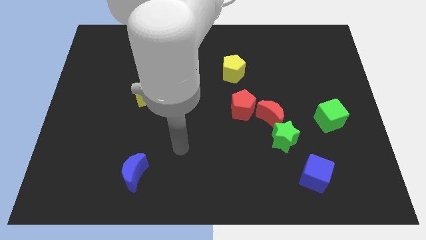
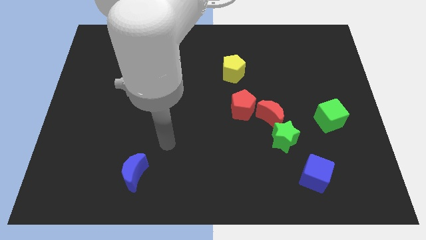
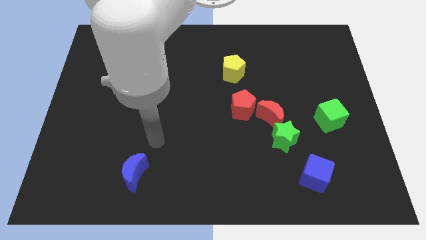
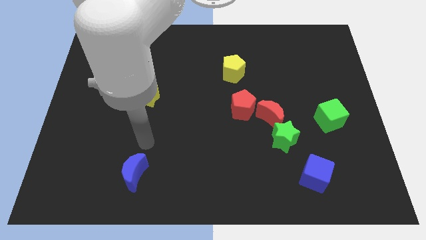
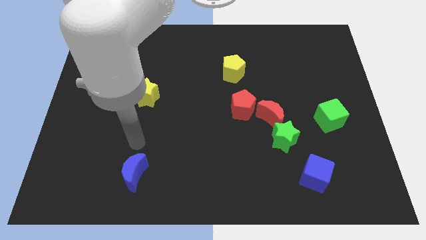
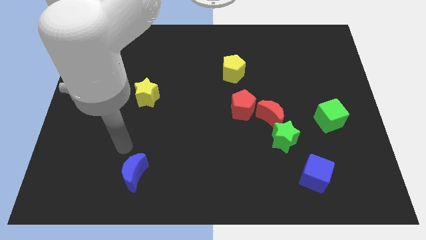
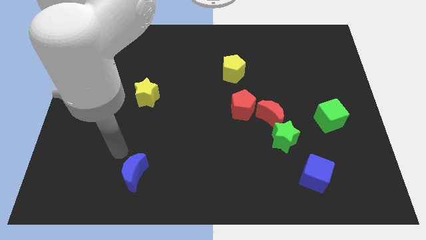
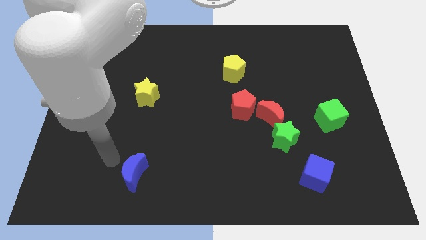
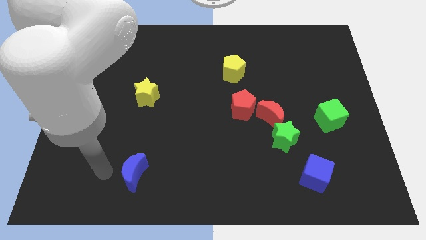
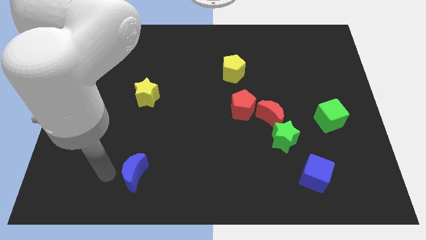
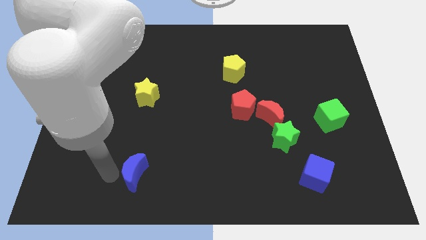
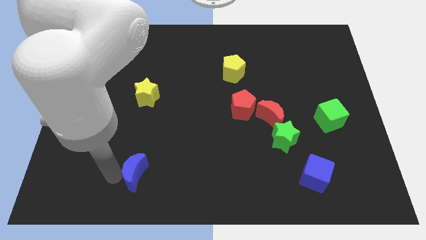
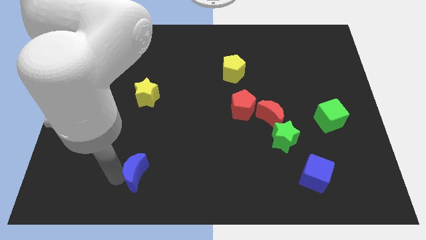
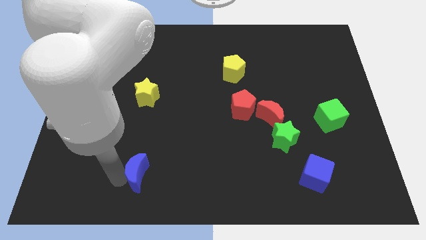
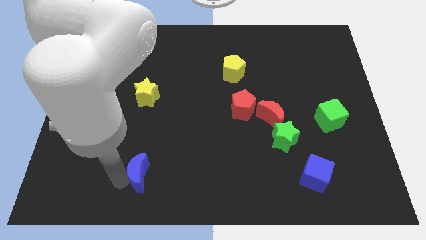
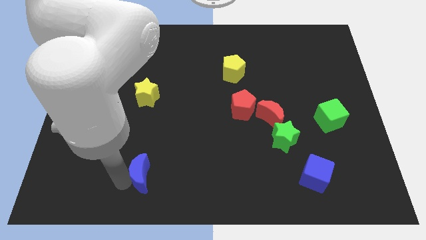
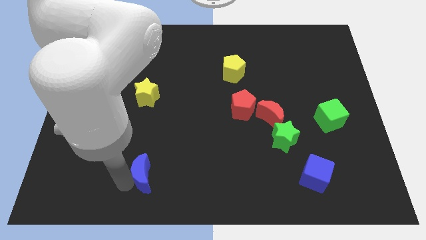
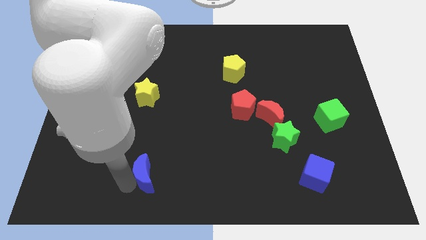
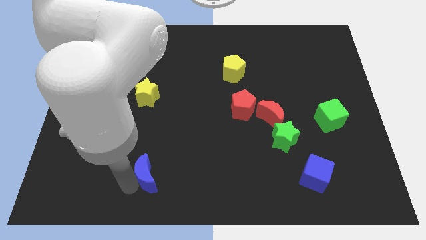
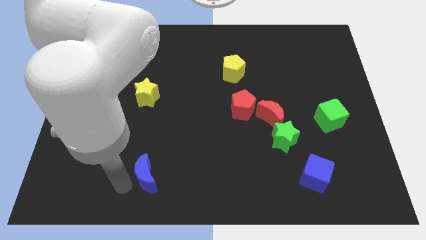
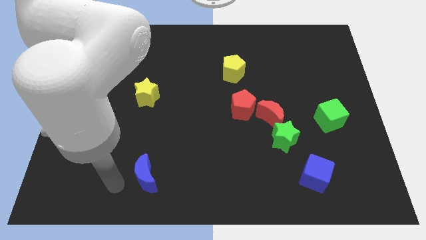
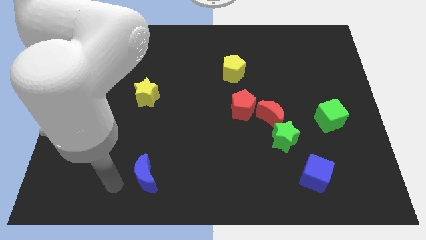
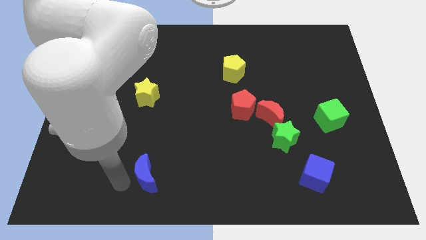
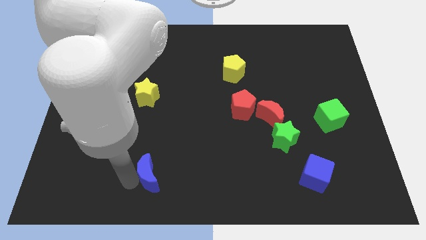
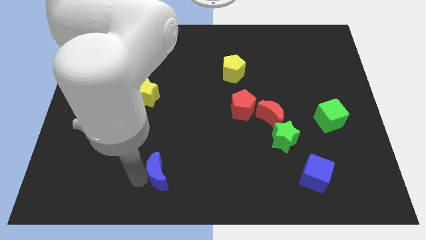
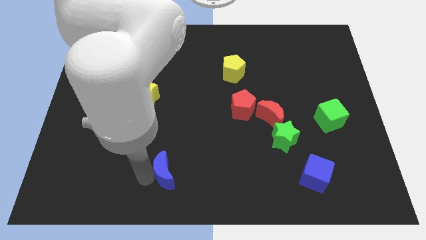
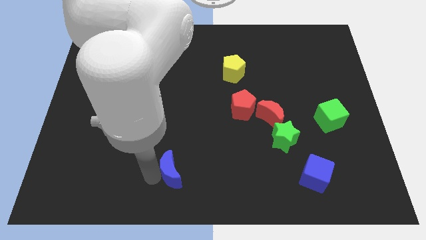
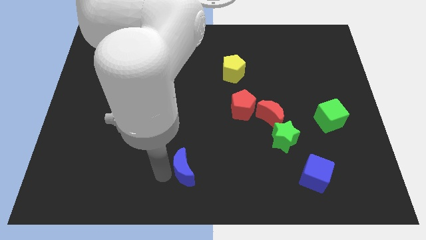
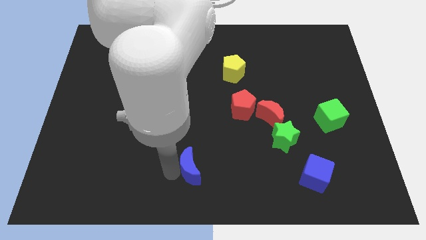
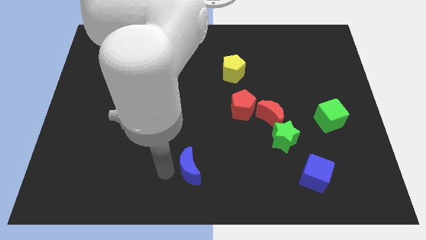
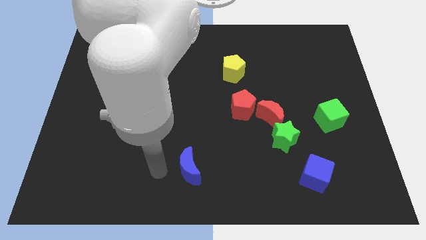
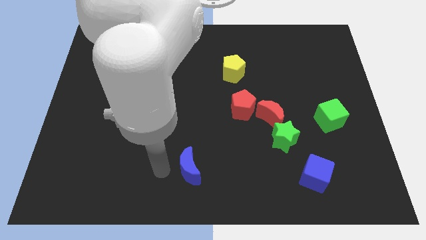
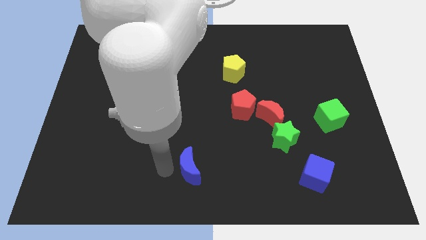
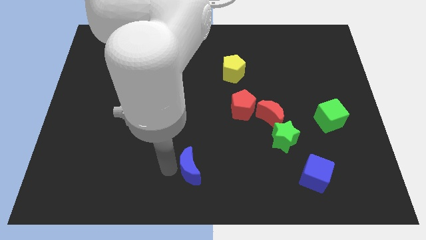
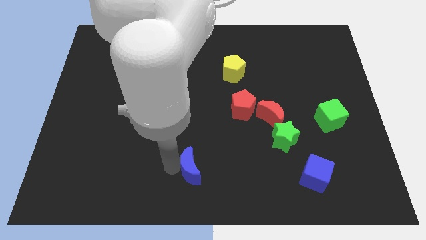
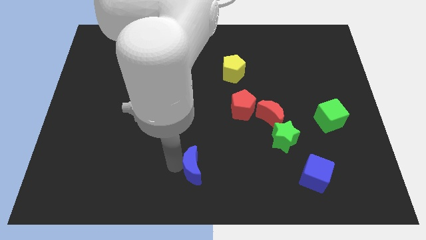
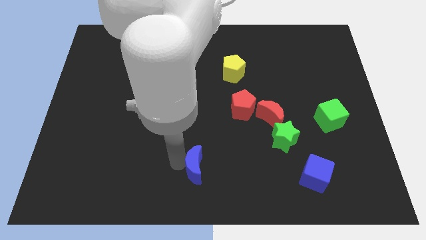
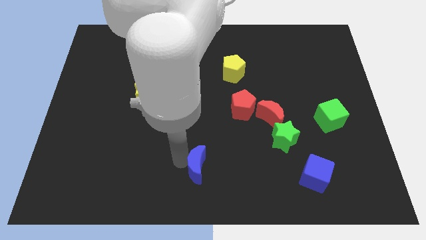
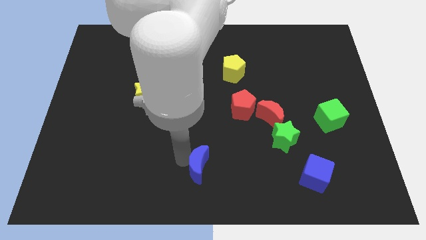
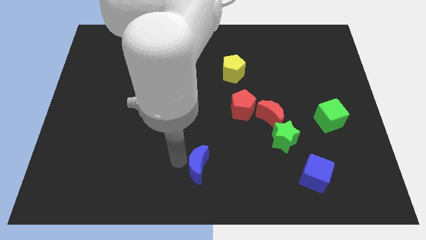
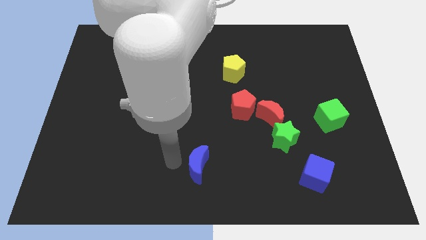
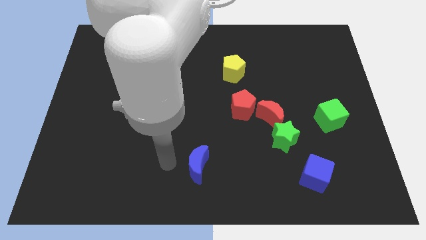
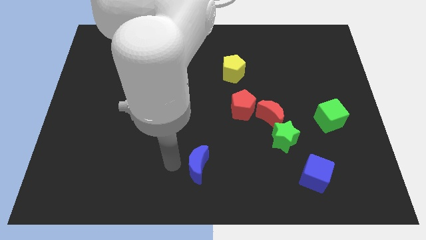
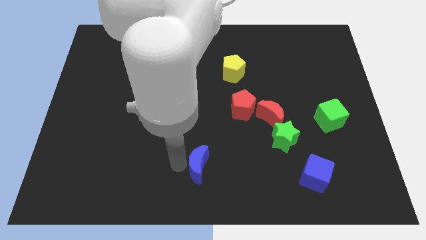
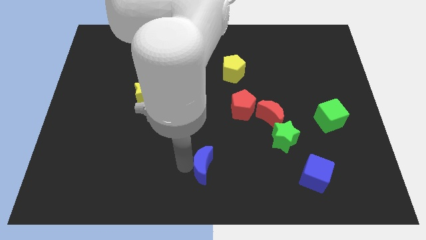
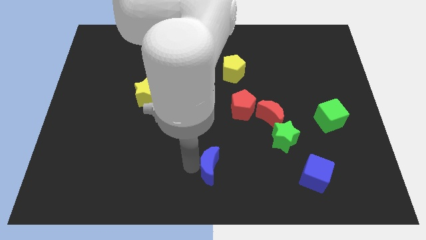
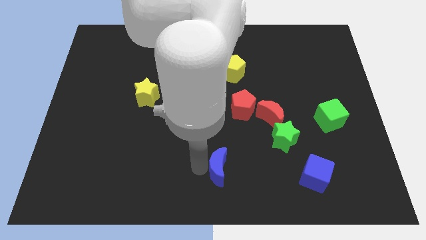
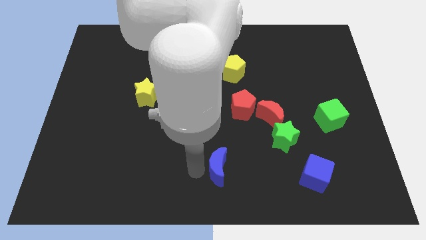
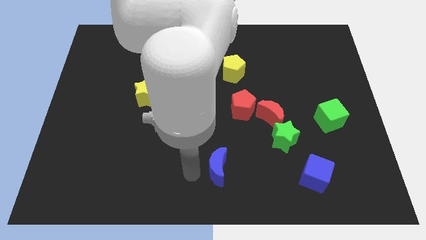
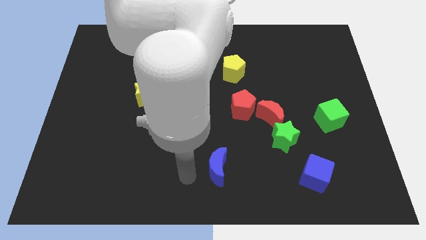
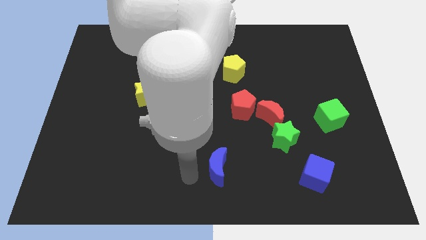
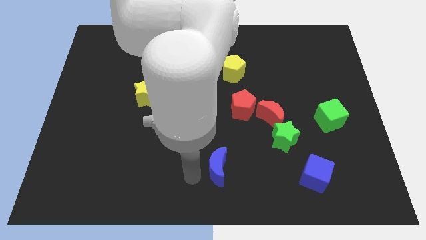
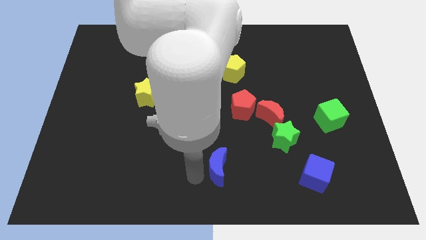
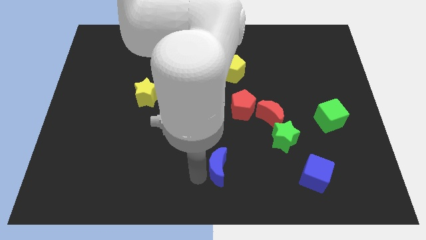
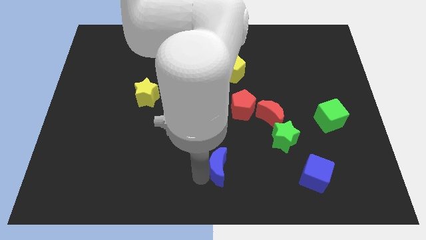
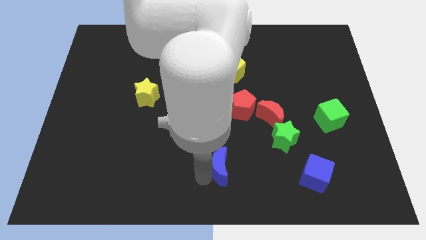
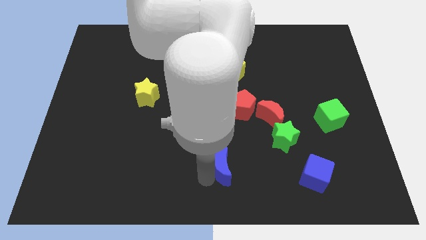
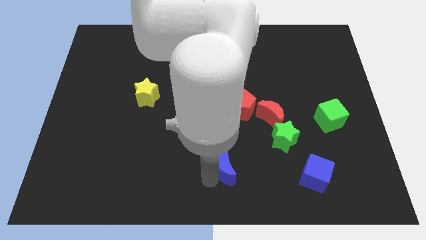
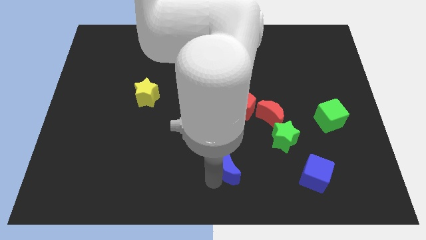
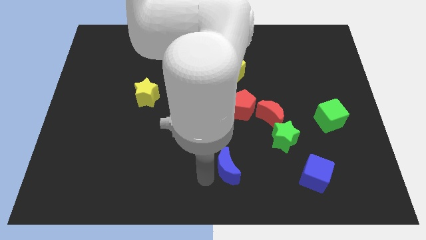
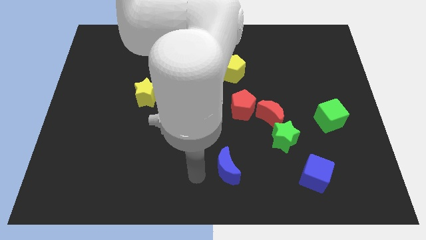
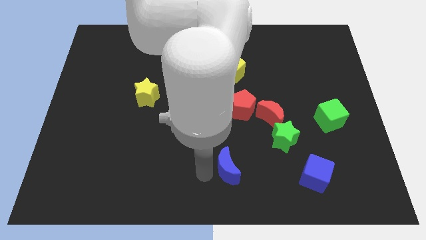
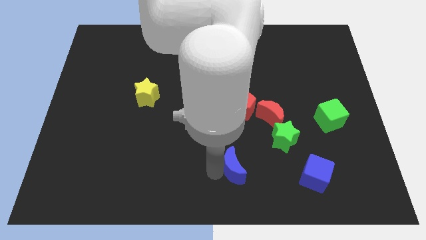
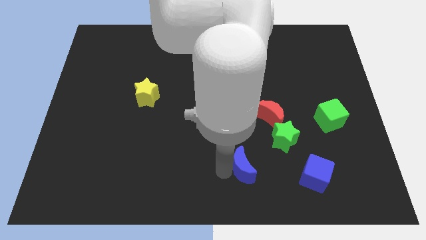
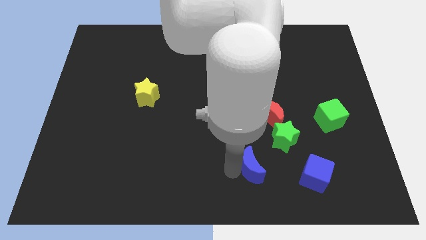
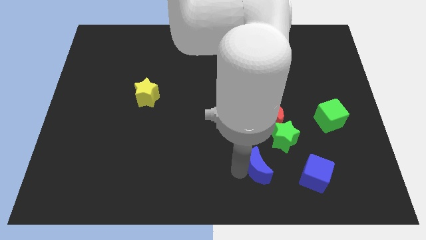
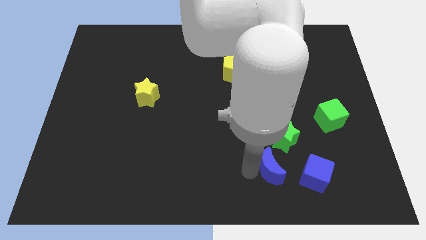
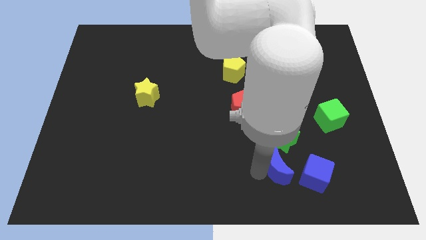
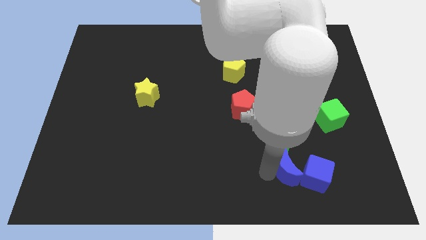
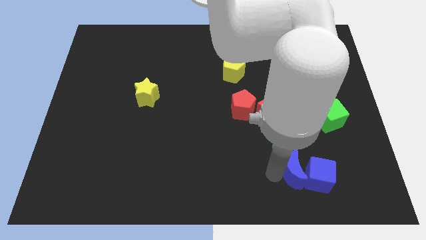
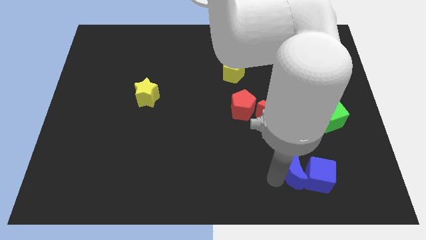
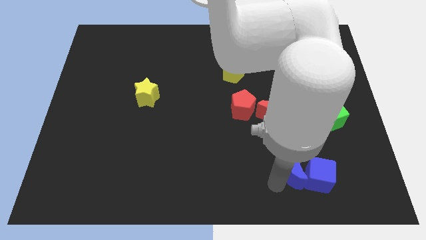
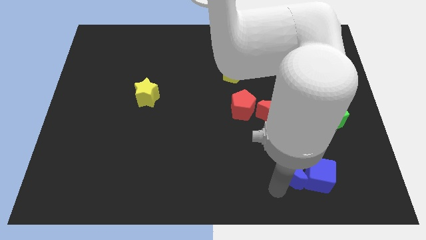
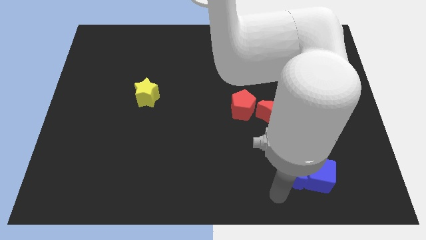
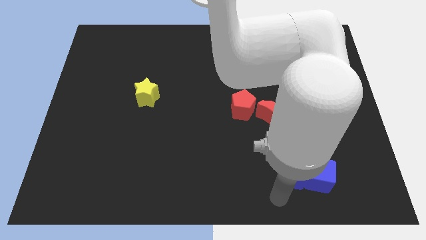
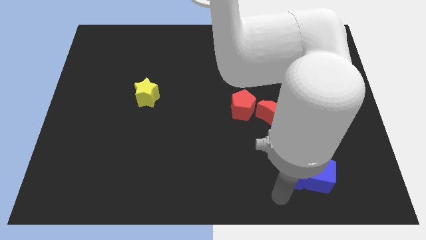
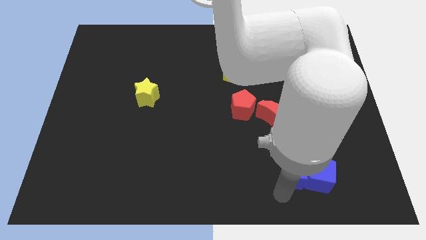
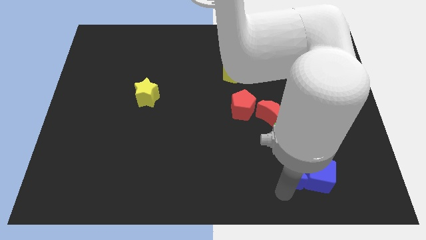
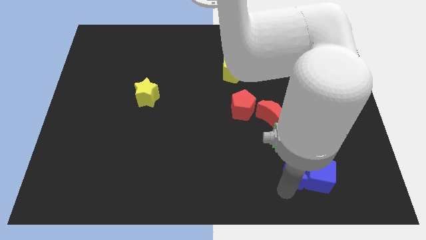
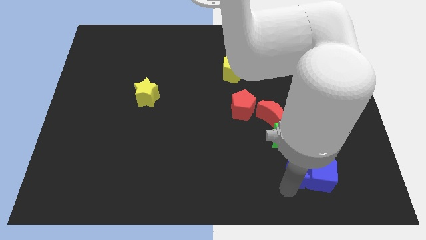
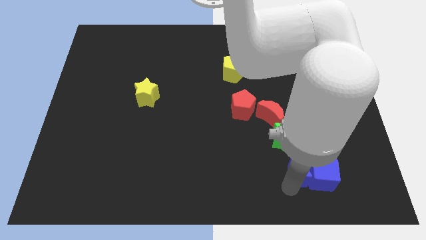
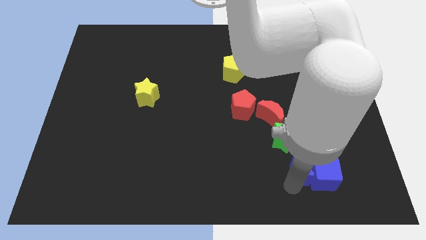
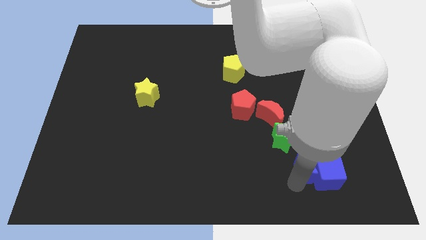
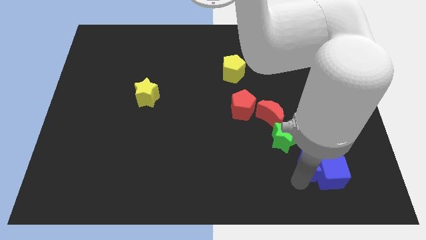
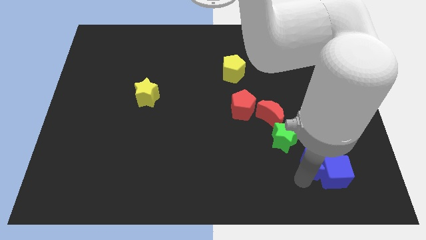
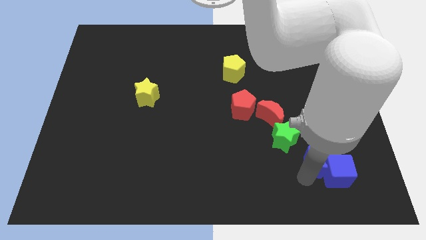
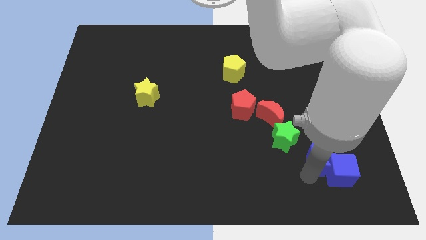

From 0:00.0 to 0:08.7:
slide the blue moon to the bottom left side of the green cube
